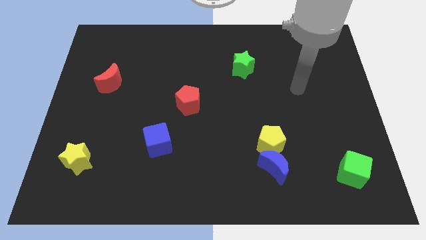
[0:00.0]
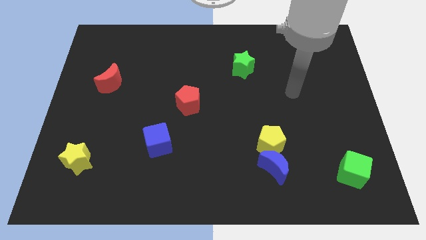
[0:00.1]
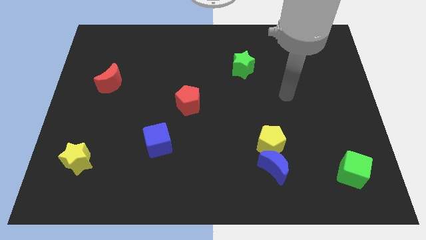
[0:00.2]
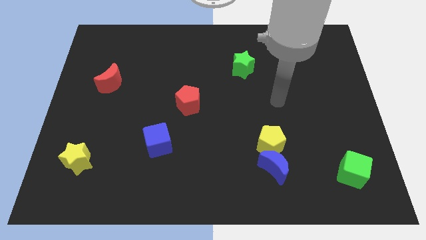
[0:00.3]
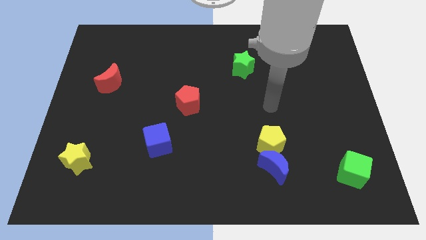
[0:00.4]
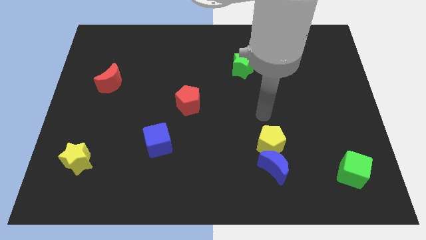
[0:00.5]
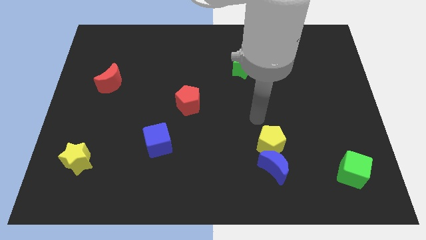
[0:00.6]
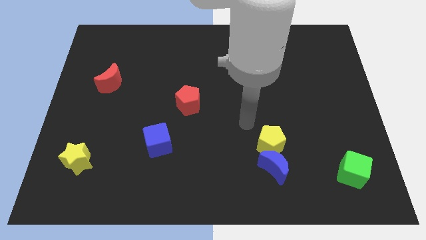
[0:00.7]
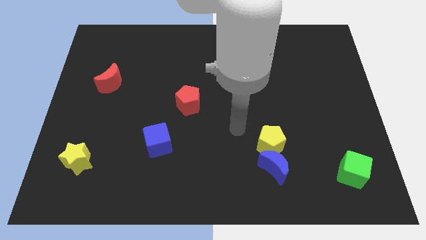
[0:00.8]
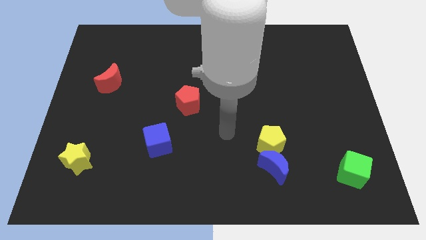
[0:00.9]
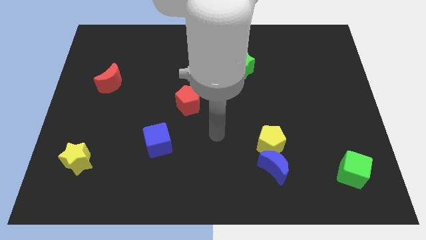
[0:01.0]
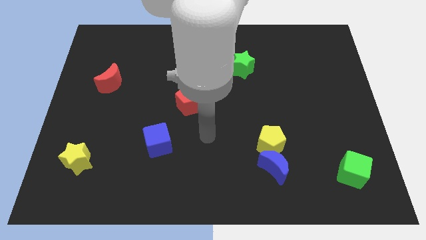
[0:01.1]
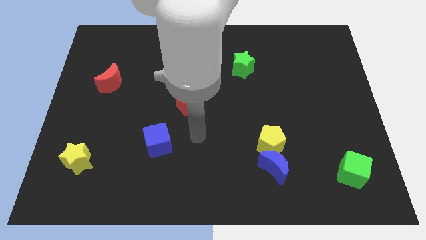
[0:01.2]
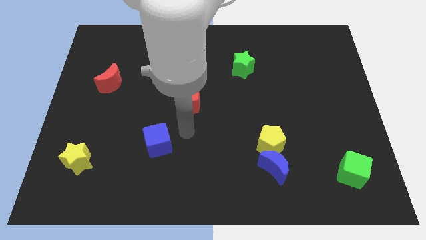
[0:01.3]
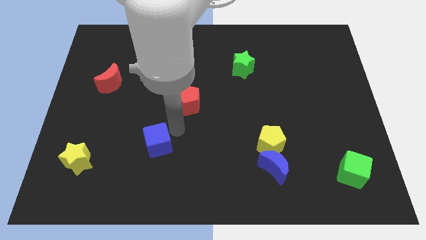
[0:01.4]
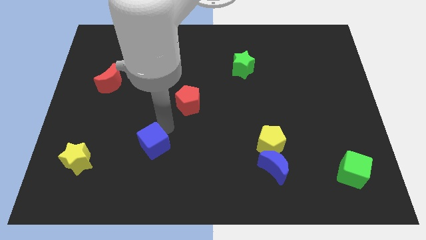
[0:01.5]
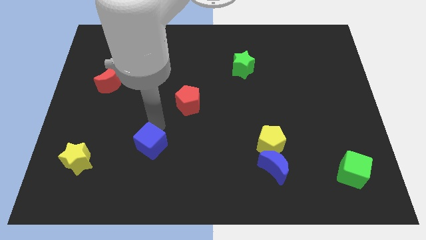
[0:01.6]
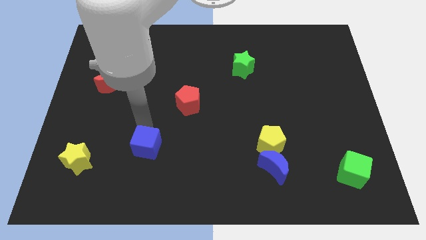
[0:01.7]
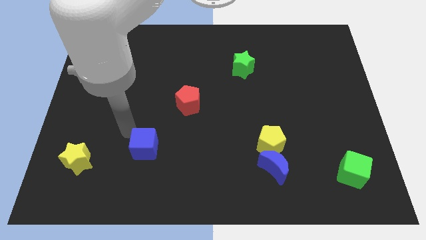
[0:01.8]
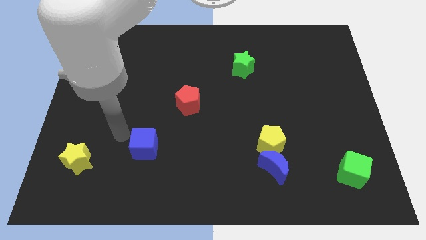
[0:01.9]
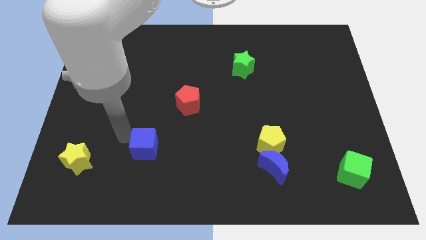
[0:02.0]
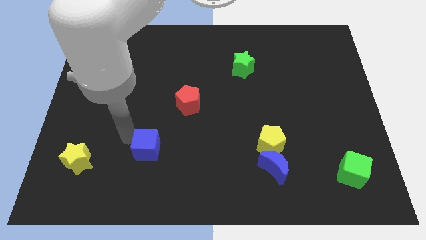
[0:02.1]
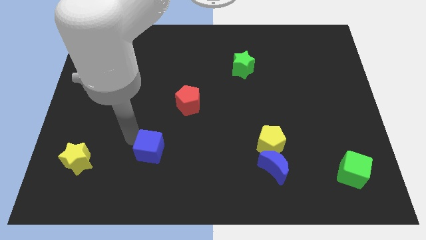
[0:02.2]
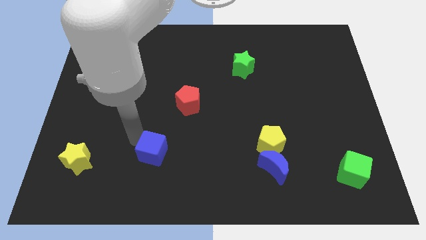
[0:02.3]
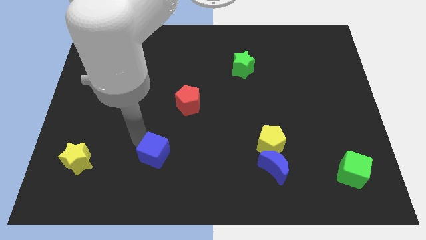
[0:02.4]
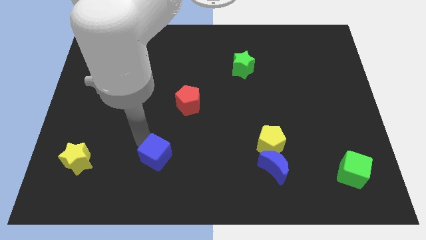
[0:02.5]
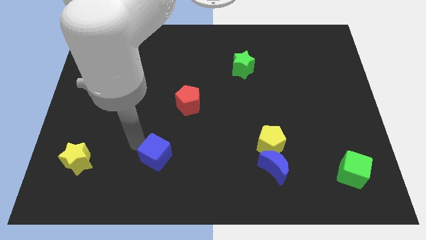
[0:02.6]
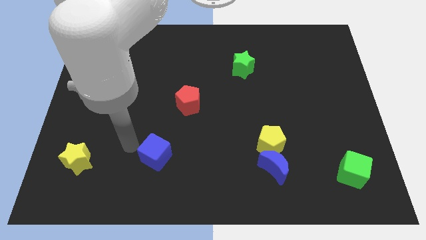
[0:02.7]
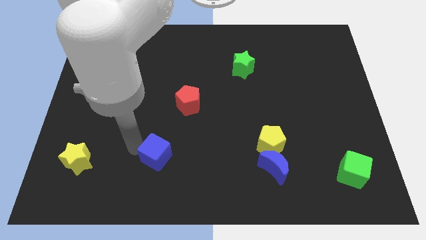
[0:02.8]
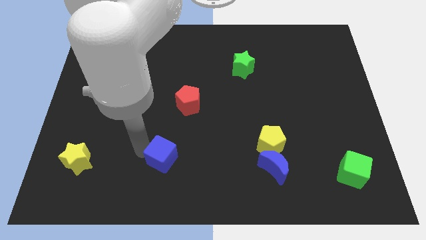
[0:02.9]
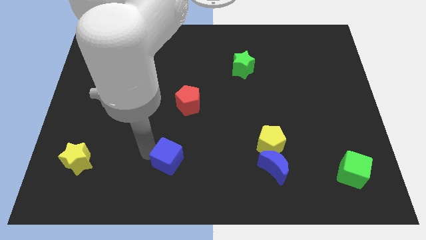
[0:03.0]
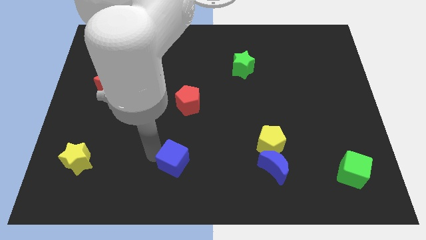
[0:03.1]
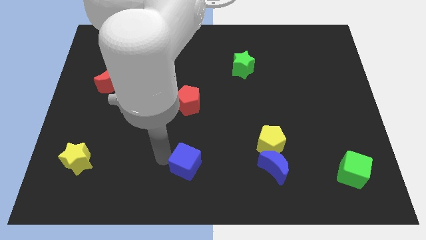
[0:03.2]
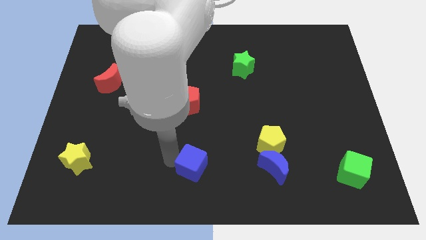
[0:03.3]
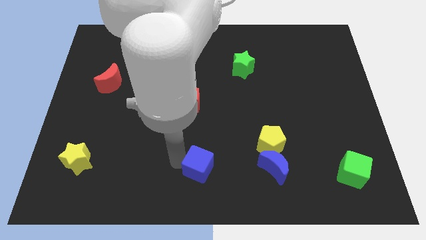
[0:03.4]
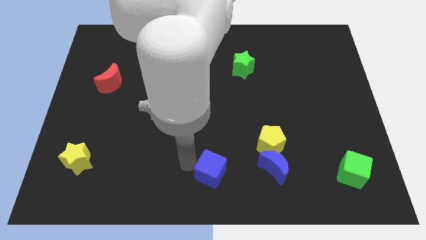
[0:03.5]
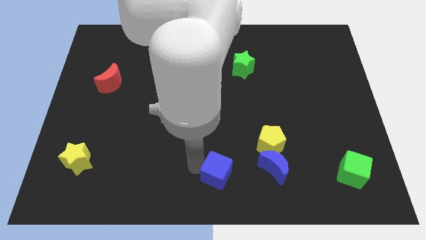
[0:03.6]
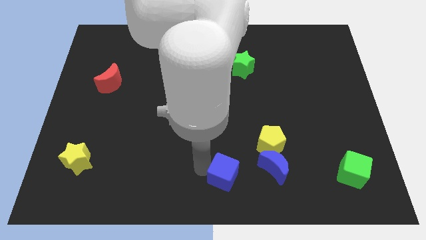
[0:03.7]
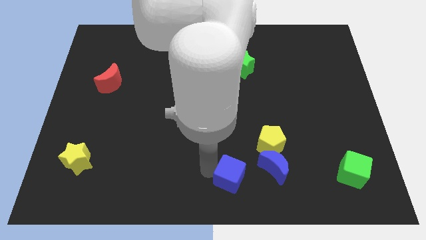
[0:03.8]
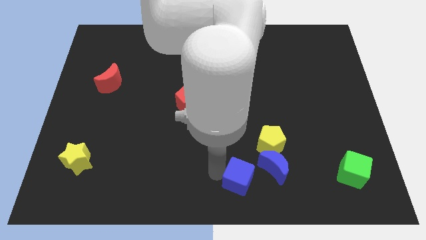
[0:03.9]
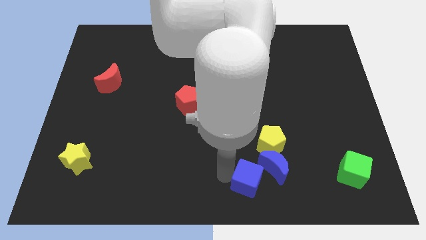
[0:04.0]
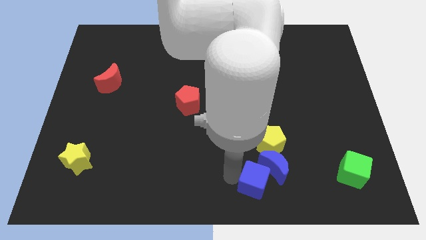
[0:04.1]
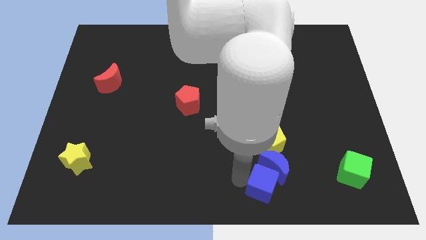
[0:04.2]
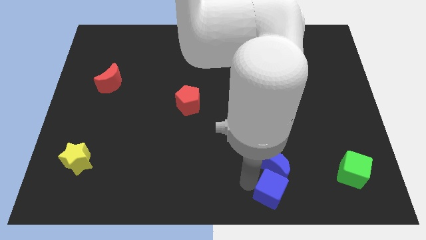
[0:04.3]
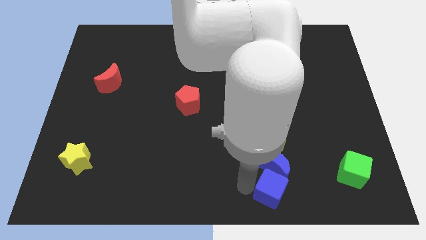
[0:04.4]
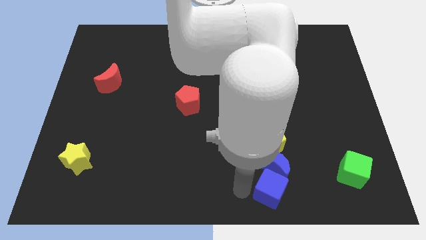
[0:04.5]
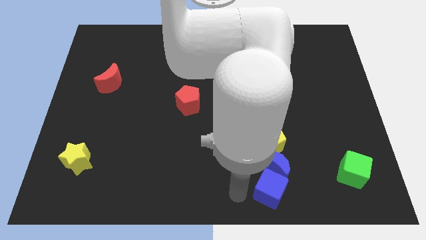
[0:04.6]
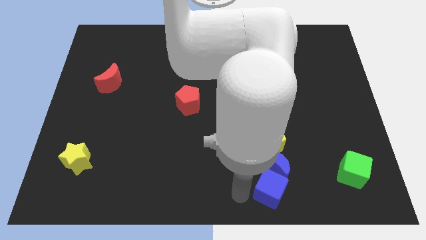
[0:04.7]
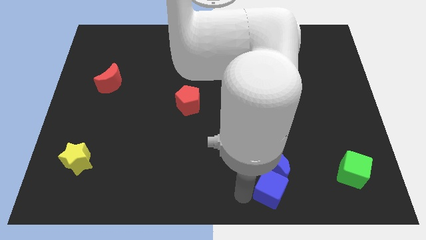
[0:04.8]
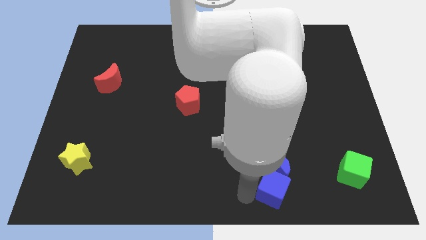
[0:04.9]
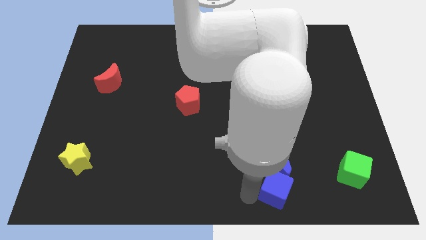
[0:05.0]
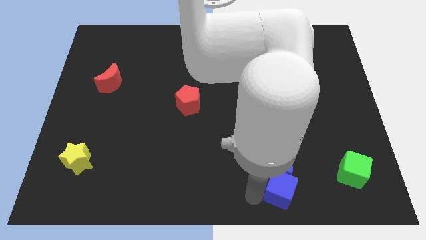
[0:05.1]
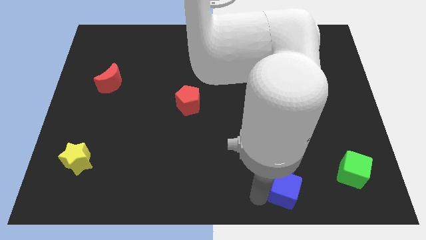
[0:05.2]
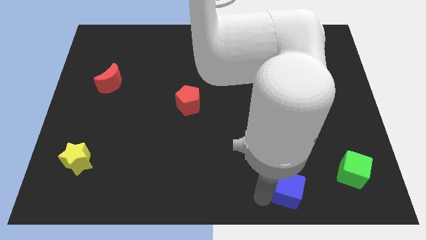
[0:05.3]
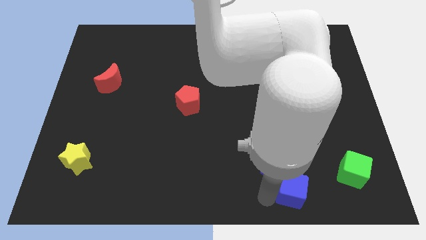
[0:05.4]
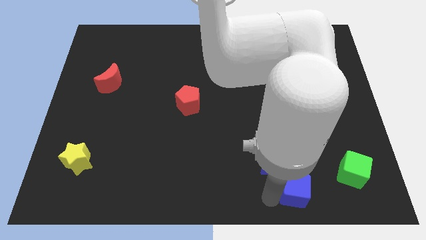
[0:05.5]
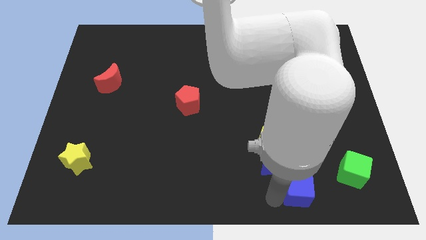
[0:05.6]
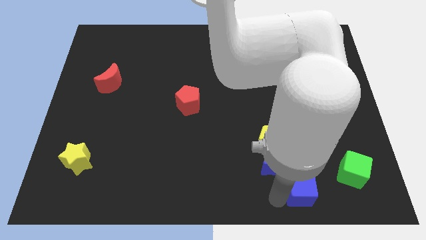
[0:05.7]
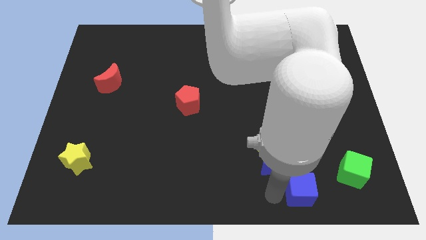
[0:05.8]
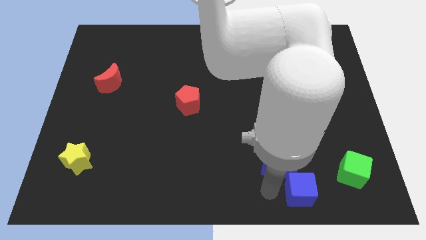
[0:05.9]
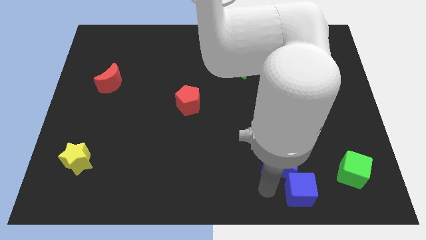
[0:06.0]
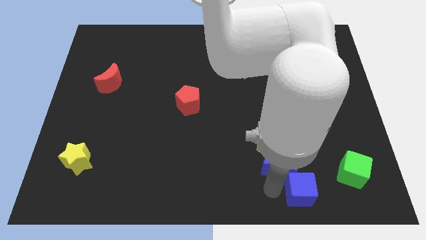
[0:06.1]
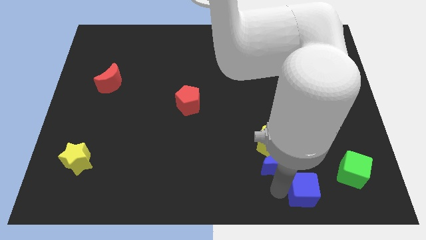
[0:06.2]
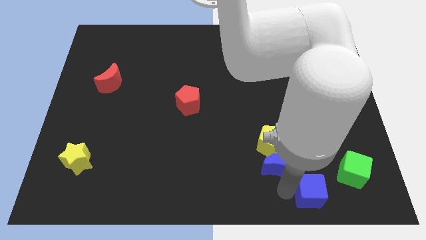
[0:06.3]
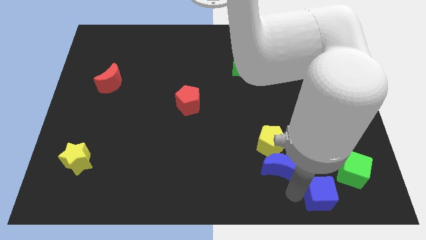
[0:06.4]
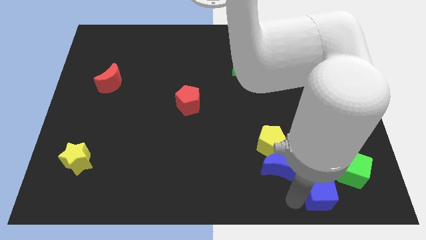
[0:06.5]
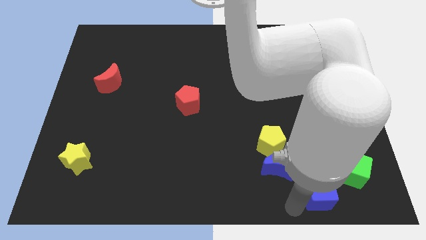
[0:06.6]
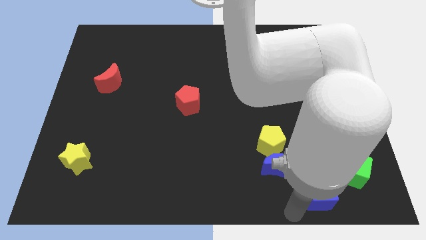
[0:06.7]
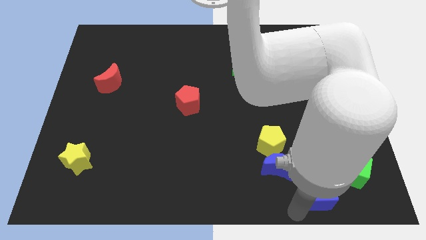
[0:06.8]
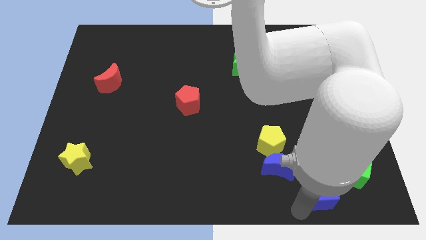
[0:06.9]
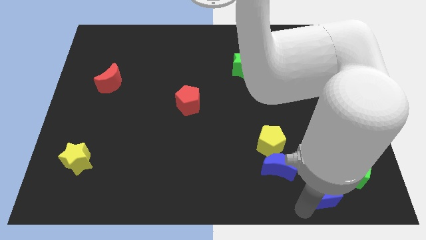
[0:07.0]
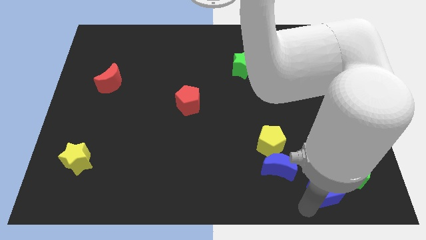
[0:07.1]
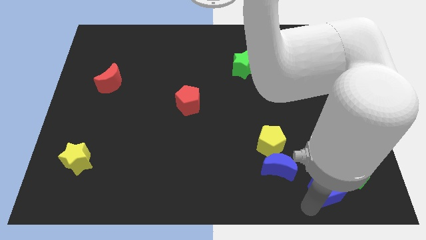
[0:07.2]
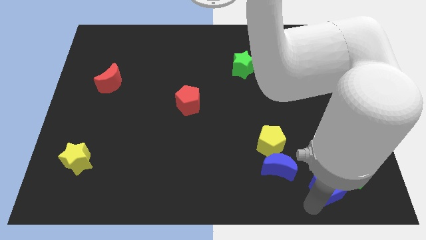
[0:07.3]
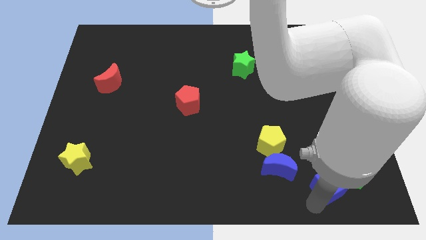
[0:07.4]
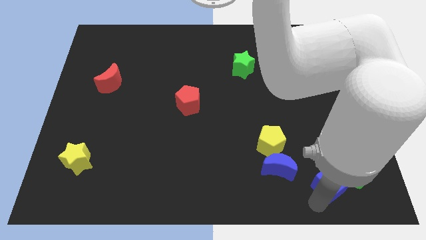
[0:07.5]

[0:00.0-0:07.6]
push the blue cube towards the green cube

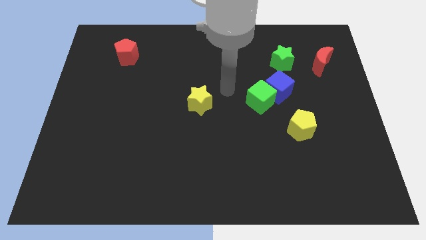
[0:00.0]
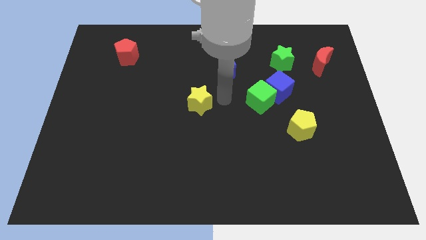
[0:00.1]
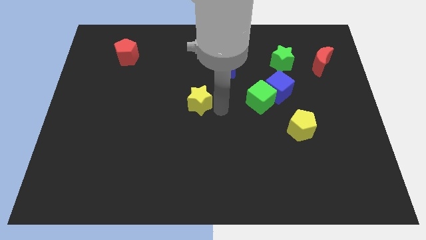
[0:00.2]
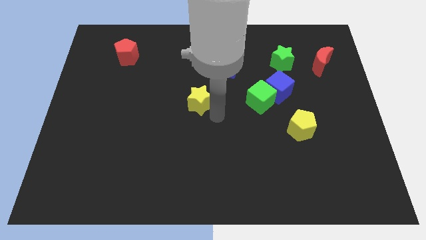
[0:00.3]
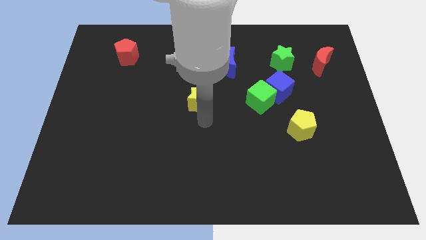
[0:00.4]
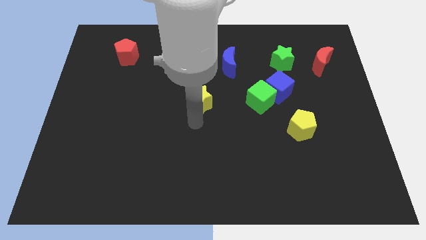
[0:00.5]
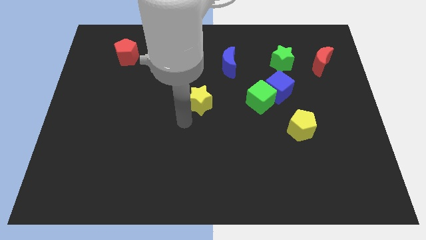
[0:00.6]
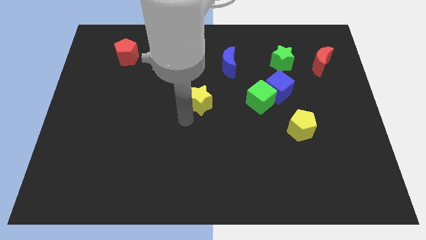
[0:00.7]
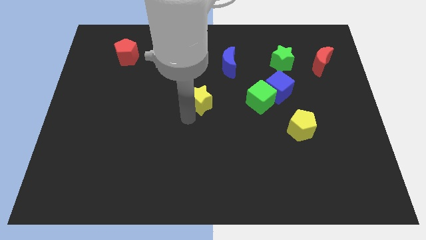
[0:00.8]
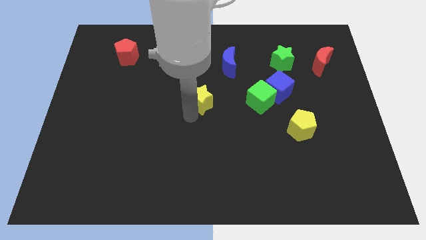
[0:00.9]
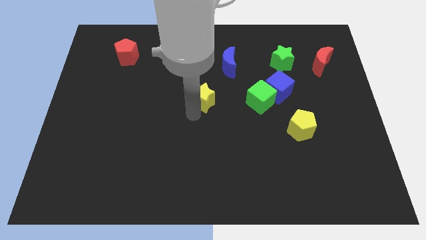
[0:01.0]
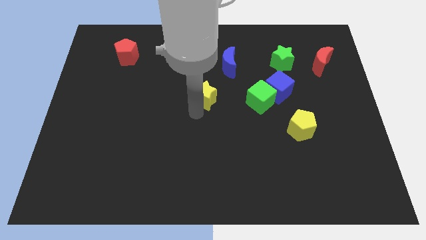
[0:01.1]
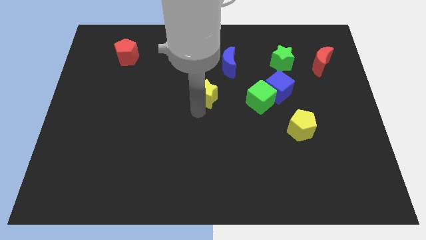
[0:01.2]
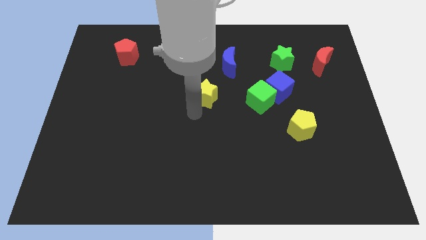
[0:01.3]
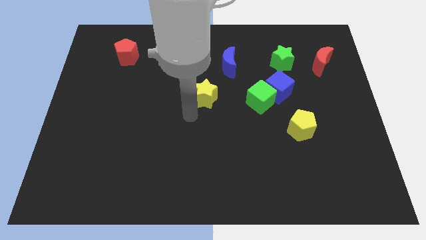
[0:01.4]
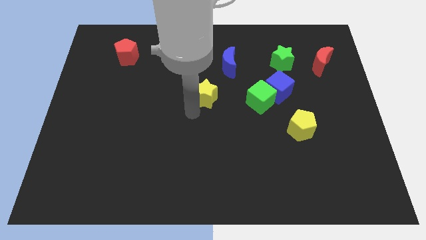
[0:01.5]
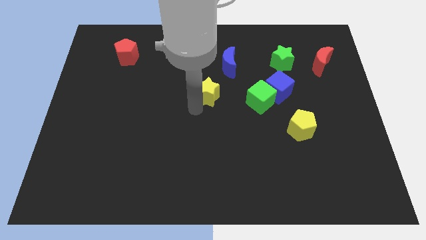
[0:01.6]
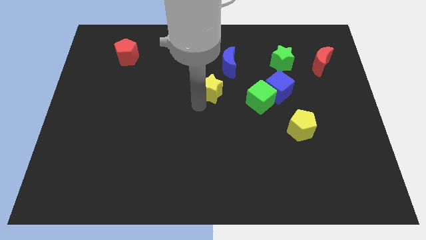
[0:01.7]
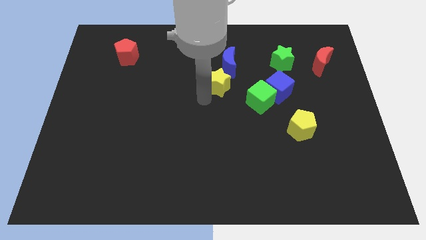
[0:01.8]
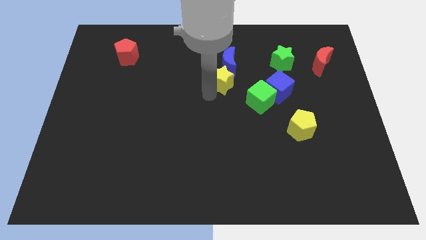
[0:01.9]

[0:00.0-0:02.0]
slide the yellow star to the blue moon
